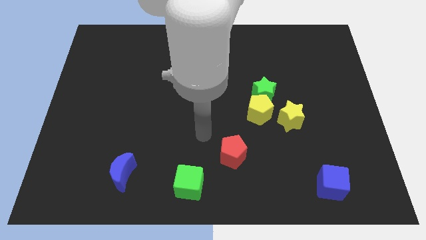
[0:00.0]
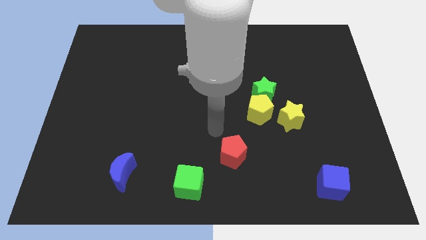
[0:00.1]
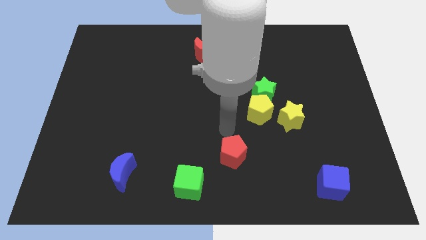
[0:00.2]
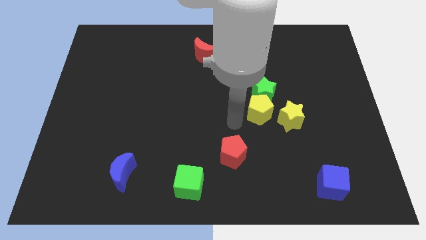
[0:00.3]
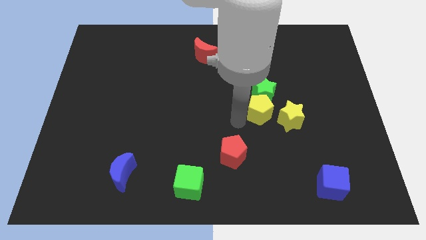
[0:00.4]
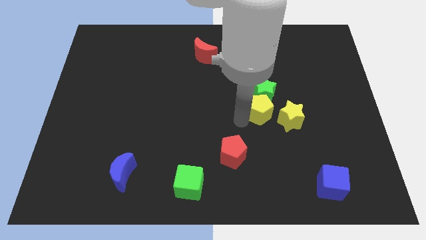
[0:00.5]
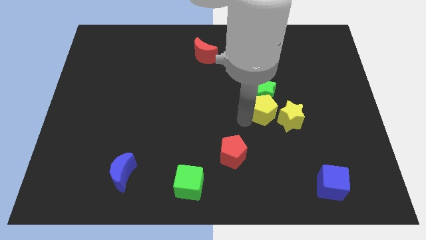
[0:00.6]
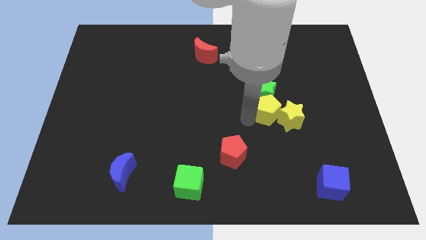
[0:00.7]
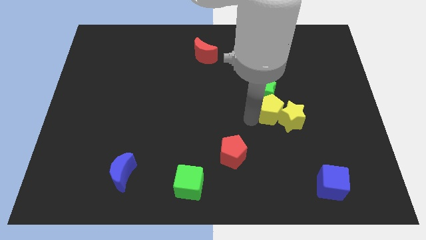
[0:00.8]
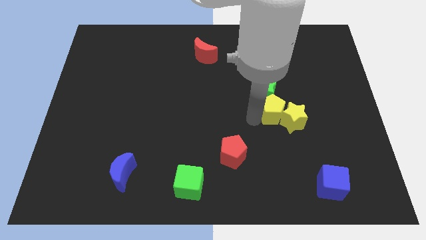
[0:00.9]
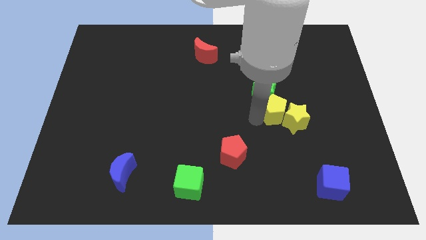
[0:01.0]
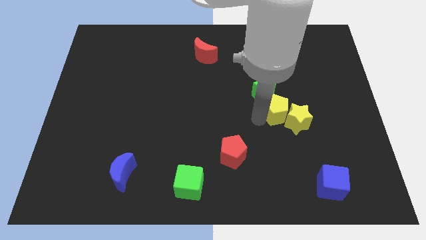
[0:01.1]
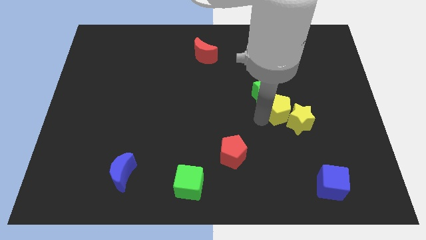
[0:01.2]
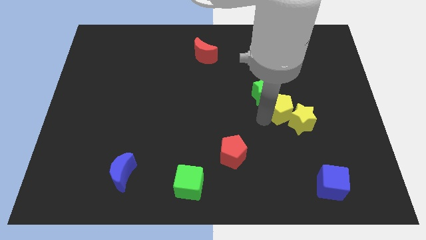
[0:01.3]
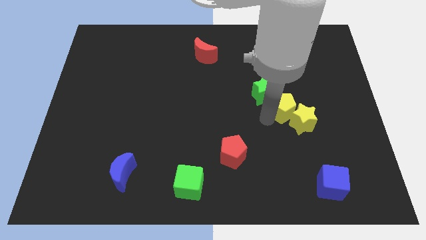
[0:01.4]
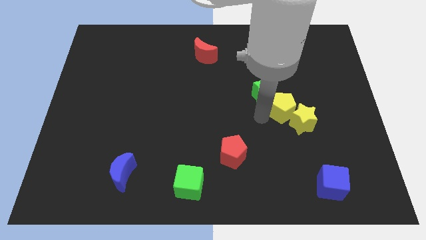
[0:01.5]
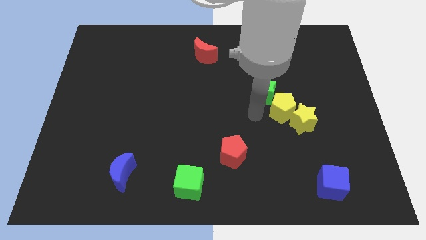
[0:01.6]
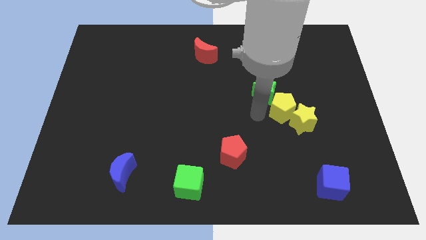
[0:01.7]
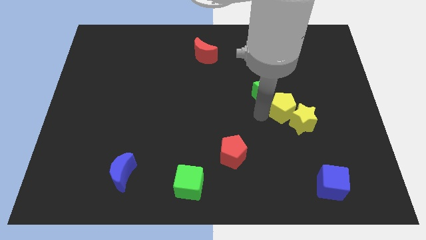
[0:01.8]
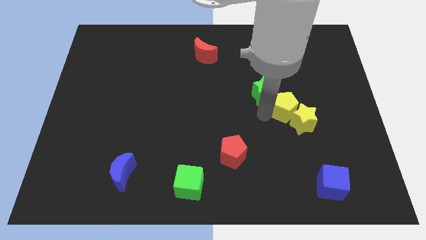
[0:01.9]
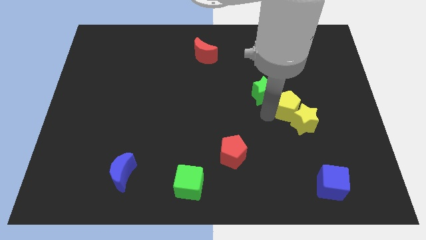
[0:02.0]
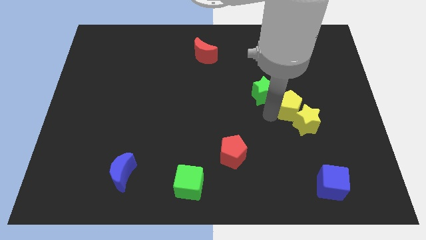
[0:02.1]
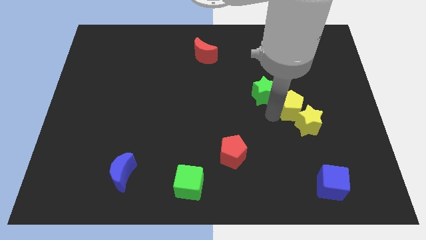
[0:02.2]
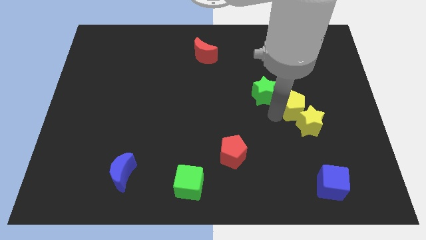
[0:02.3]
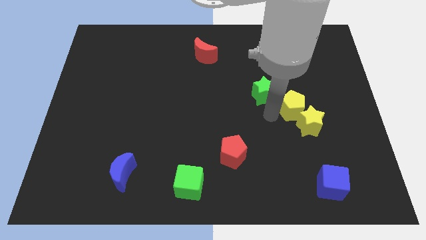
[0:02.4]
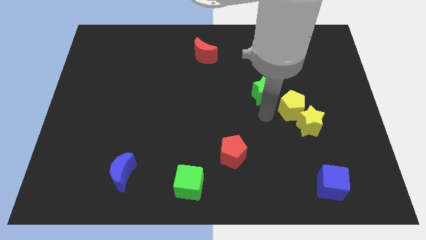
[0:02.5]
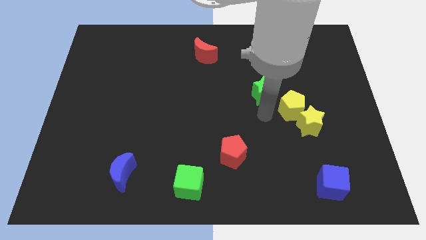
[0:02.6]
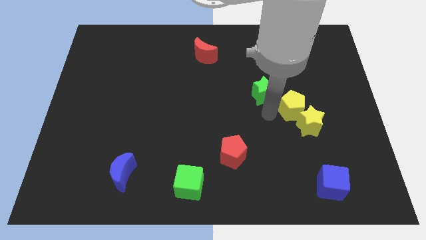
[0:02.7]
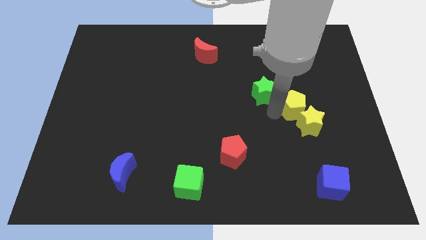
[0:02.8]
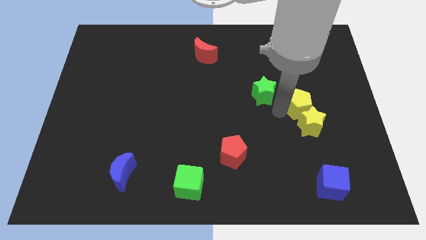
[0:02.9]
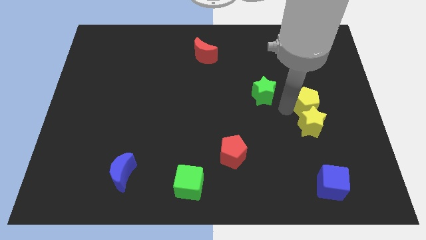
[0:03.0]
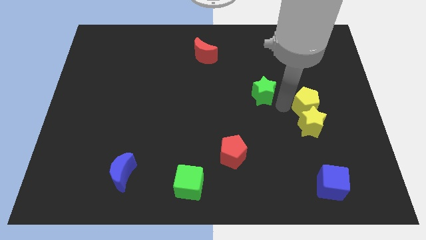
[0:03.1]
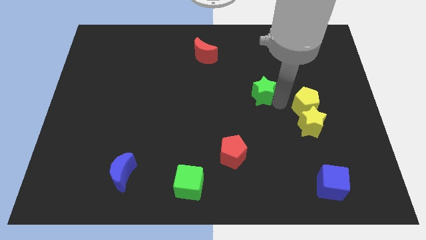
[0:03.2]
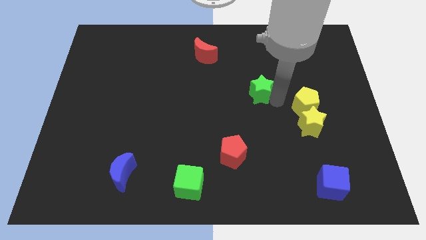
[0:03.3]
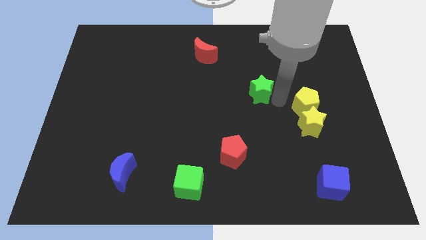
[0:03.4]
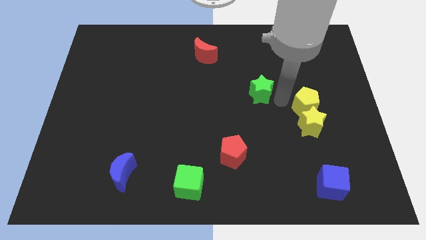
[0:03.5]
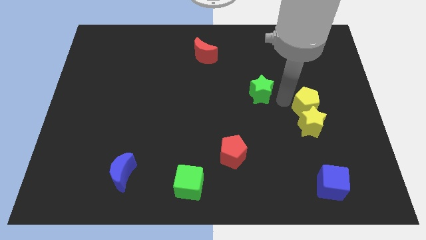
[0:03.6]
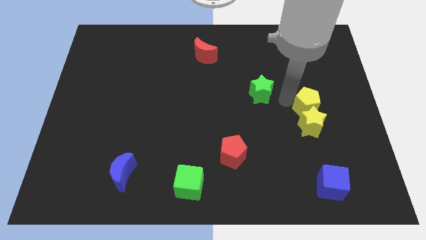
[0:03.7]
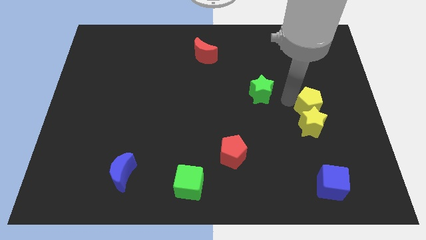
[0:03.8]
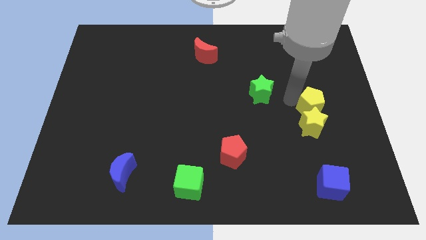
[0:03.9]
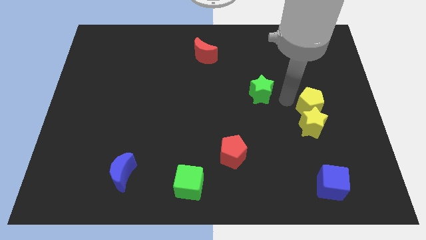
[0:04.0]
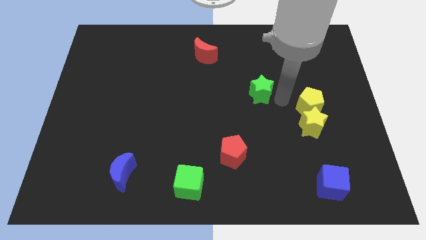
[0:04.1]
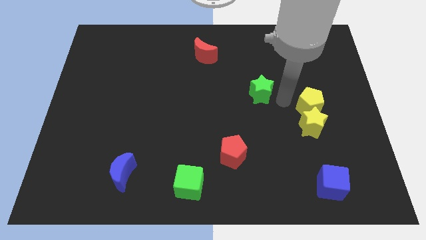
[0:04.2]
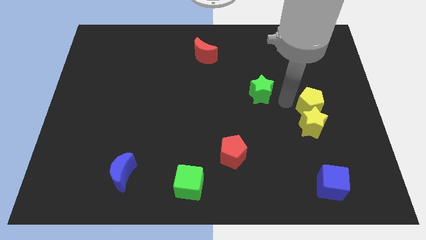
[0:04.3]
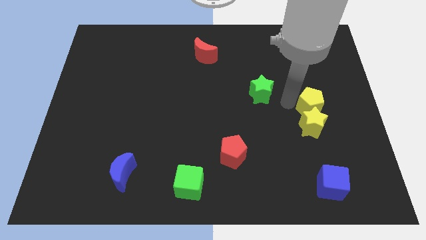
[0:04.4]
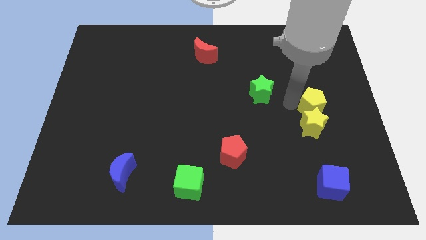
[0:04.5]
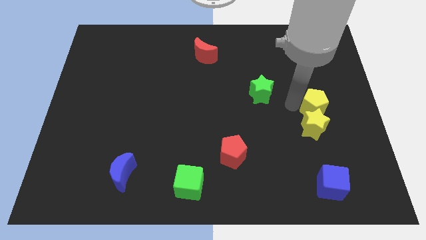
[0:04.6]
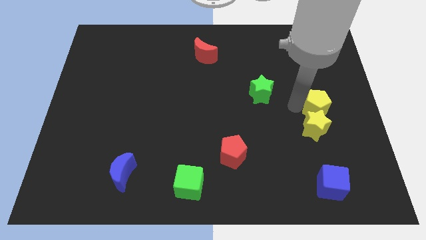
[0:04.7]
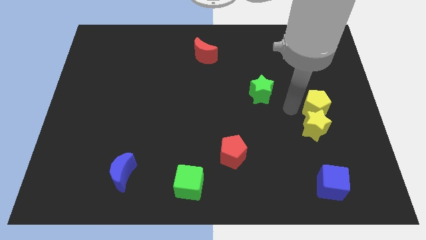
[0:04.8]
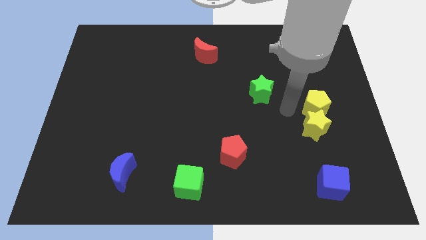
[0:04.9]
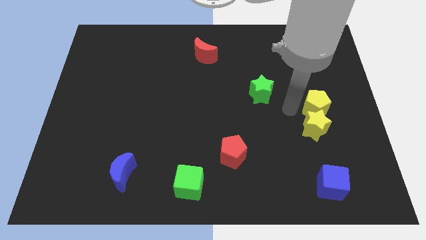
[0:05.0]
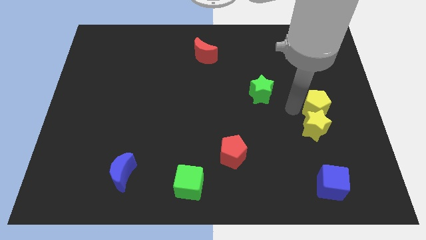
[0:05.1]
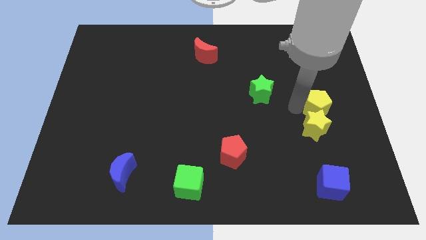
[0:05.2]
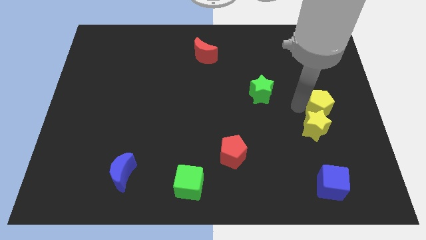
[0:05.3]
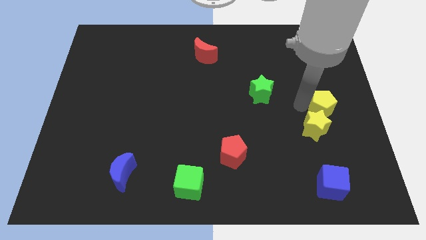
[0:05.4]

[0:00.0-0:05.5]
slide the yellow pentagon to the right side

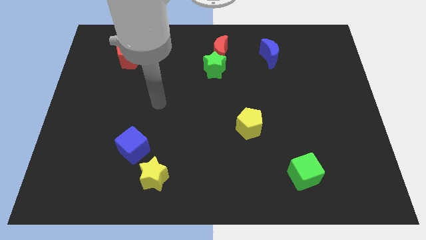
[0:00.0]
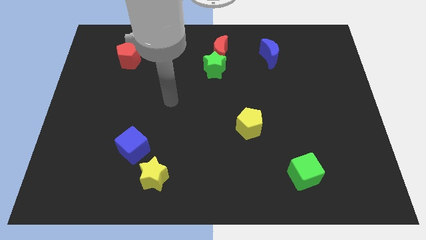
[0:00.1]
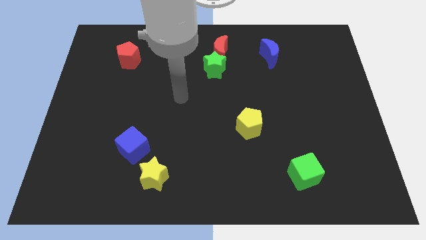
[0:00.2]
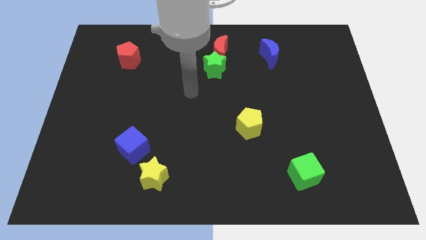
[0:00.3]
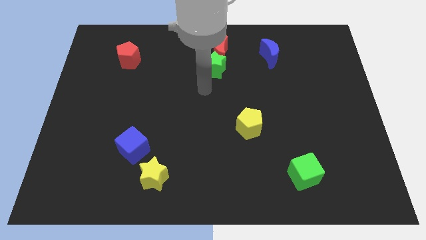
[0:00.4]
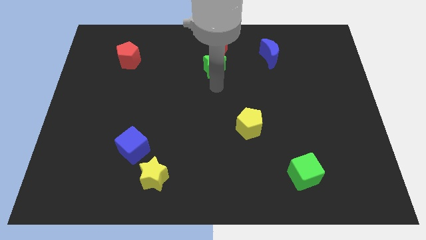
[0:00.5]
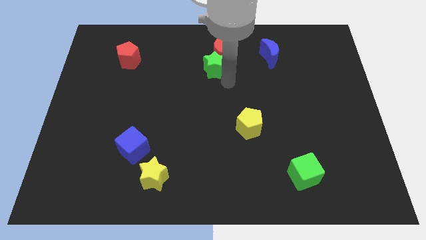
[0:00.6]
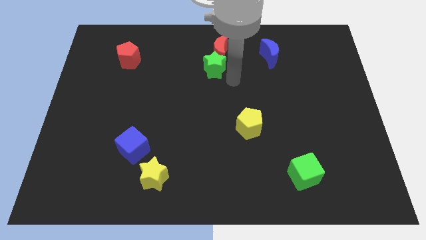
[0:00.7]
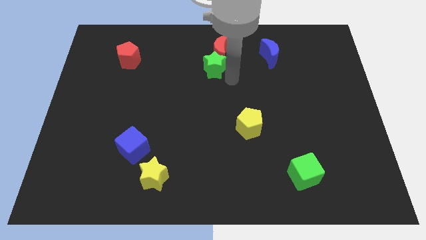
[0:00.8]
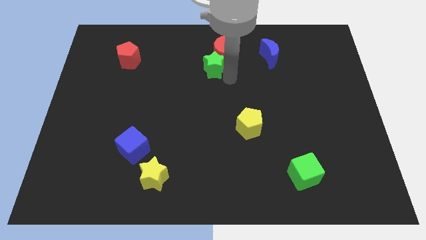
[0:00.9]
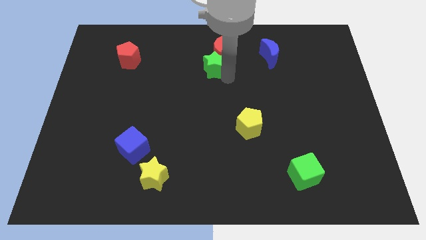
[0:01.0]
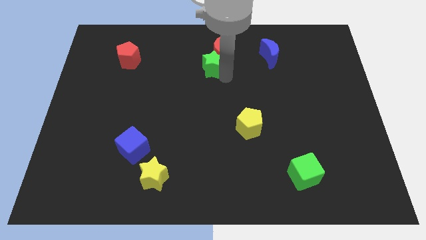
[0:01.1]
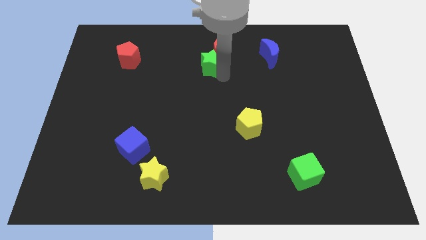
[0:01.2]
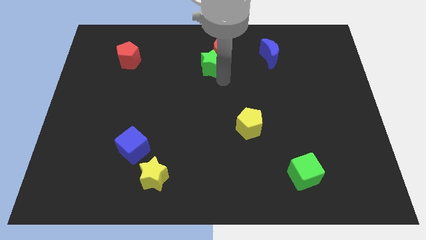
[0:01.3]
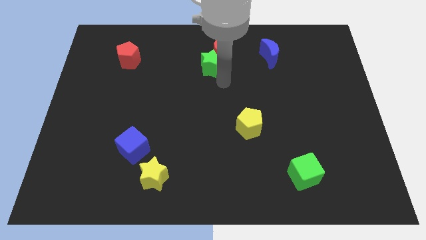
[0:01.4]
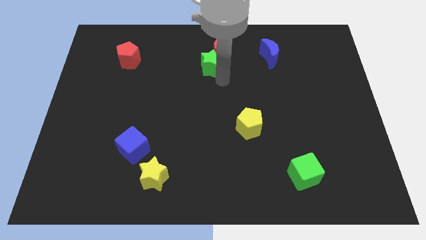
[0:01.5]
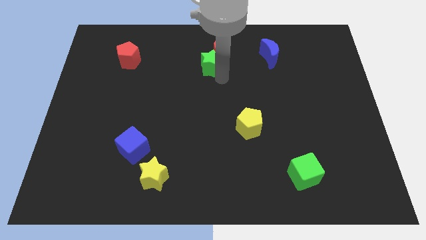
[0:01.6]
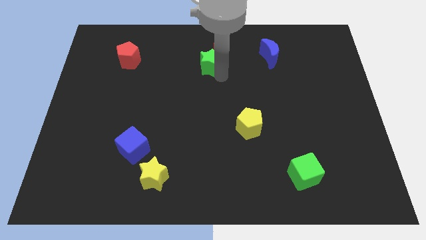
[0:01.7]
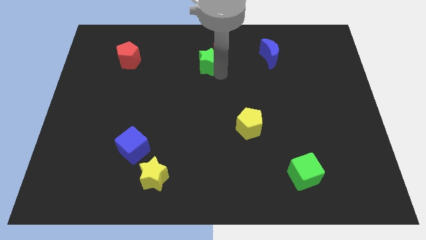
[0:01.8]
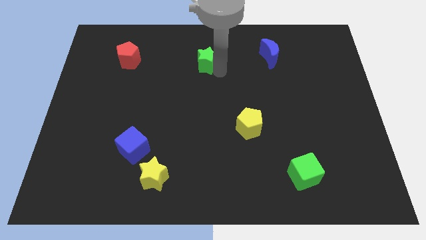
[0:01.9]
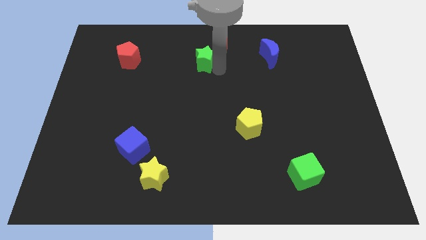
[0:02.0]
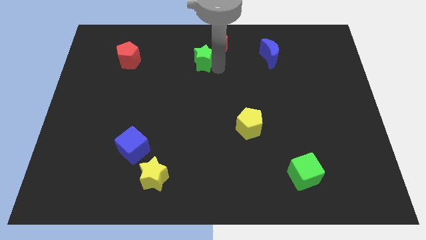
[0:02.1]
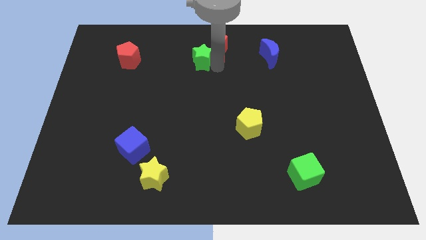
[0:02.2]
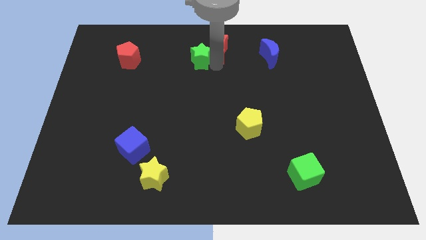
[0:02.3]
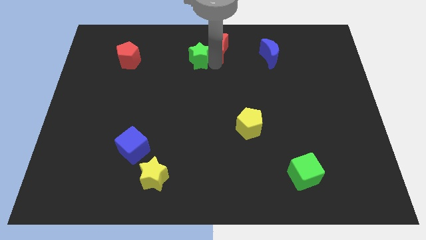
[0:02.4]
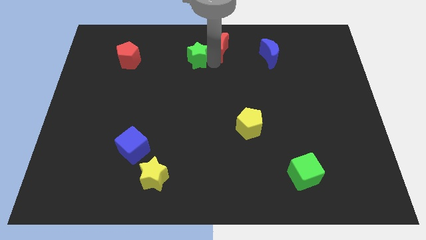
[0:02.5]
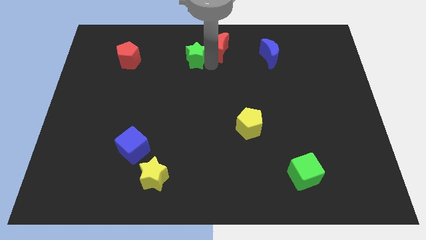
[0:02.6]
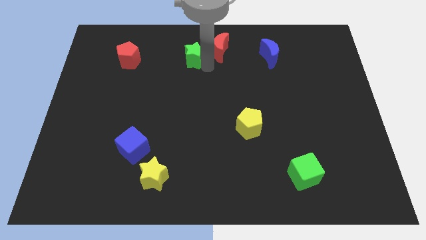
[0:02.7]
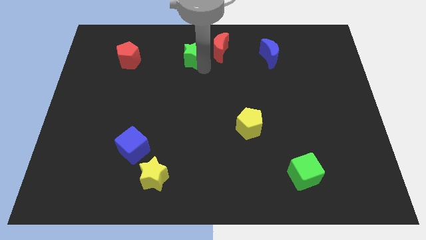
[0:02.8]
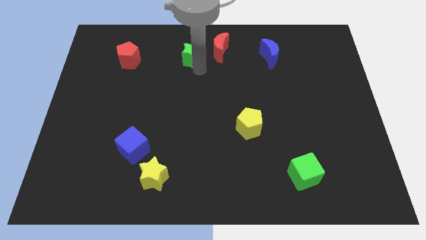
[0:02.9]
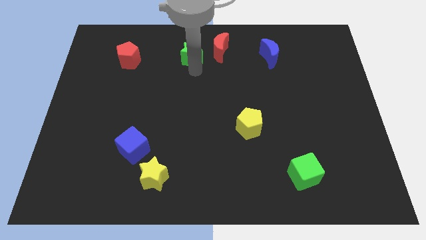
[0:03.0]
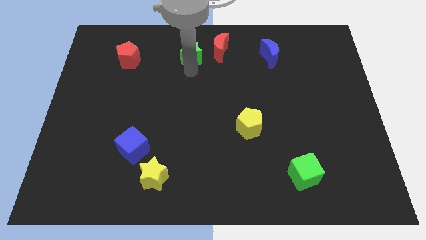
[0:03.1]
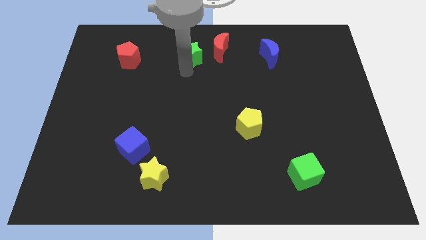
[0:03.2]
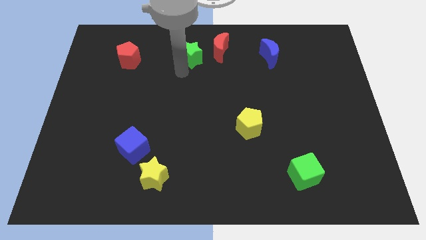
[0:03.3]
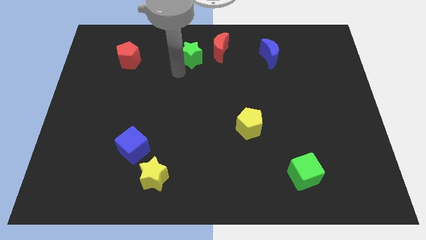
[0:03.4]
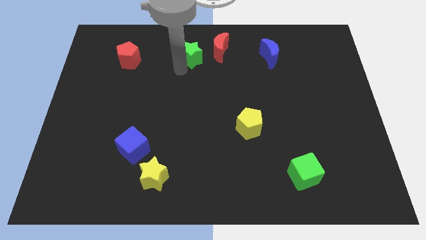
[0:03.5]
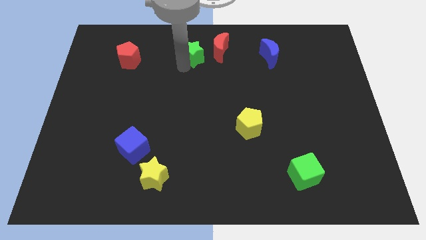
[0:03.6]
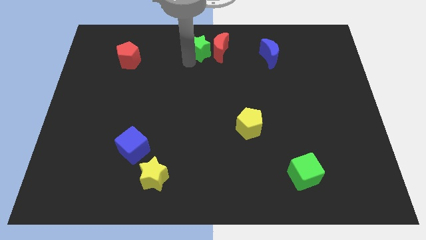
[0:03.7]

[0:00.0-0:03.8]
slide the green star to the top
